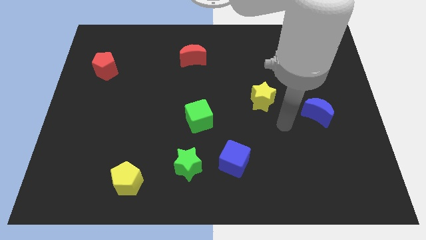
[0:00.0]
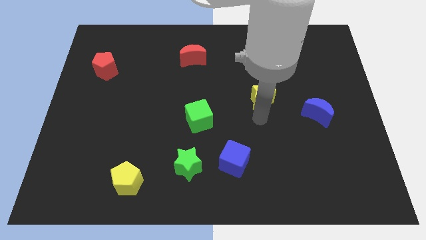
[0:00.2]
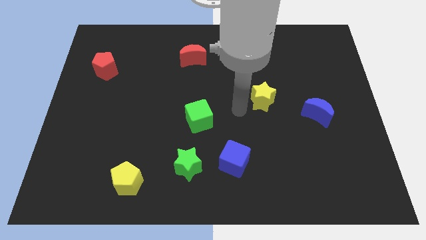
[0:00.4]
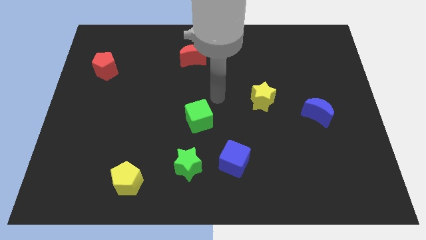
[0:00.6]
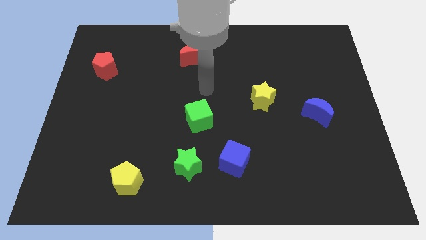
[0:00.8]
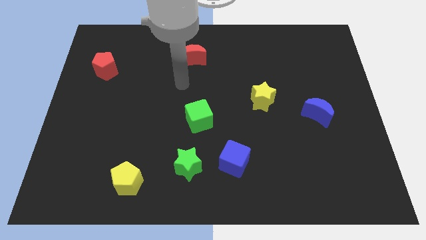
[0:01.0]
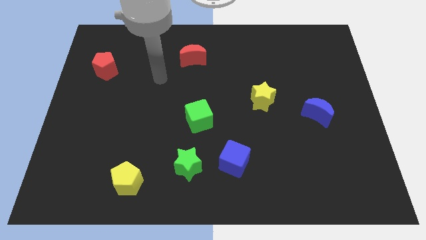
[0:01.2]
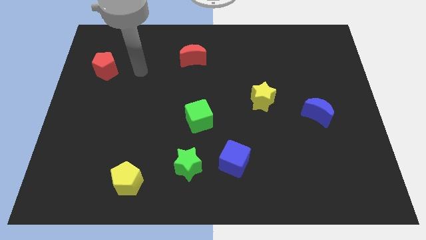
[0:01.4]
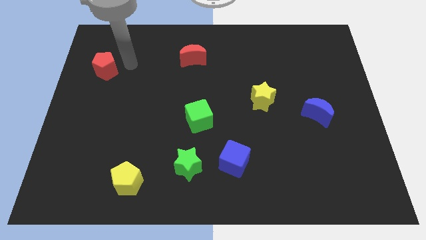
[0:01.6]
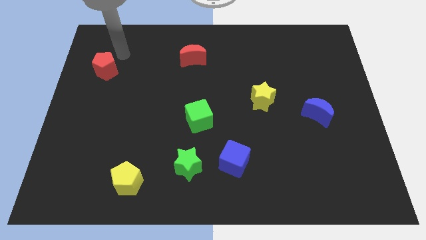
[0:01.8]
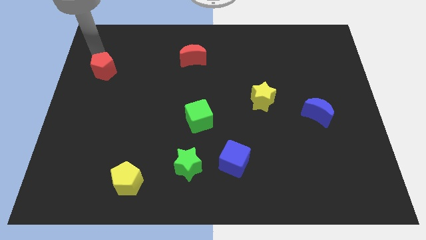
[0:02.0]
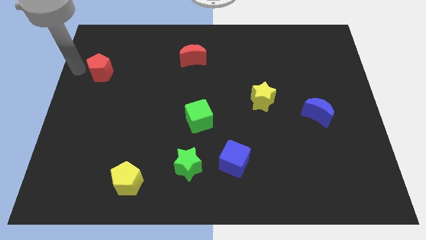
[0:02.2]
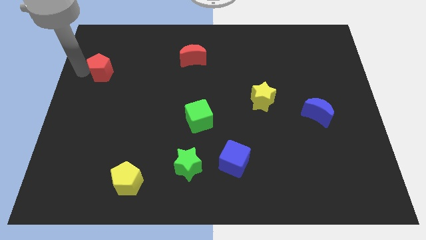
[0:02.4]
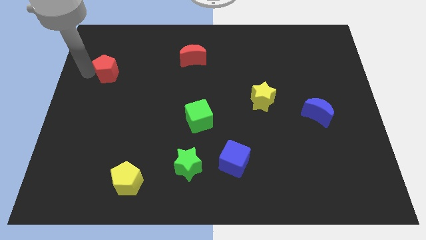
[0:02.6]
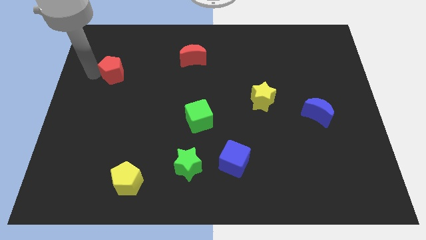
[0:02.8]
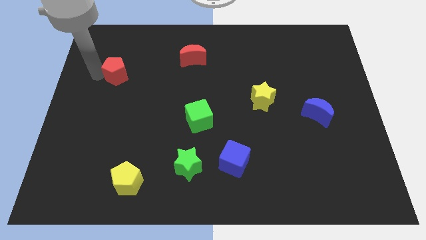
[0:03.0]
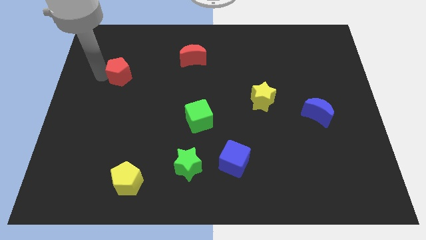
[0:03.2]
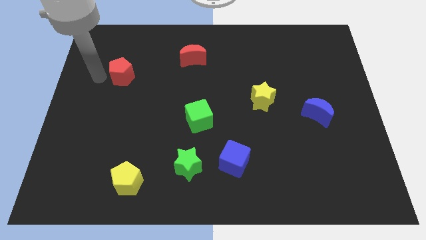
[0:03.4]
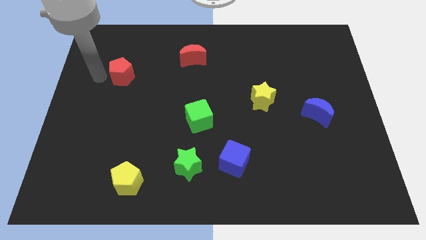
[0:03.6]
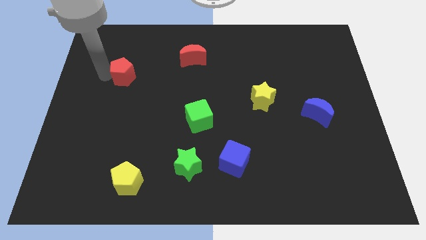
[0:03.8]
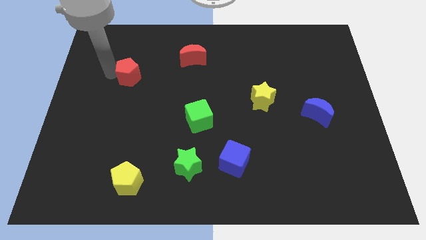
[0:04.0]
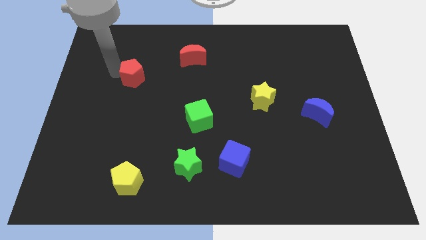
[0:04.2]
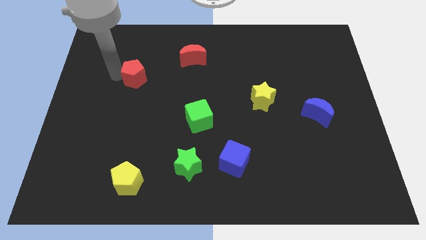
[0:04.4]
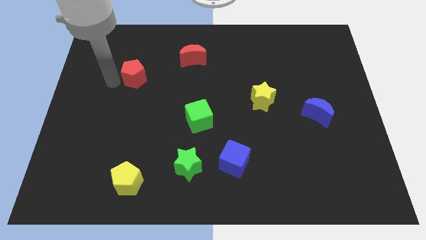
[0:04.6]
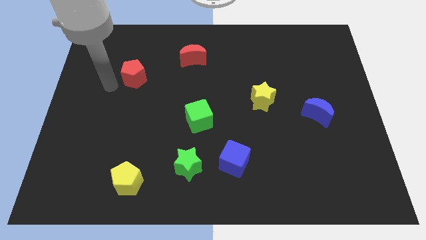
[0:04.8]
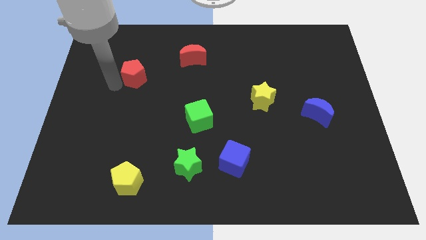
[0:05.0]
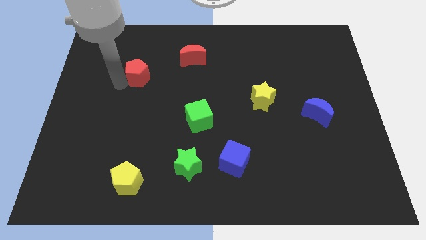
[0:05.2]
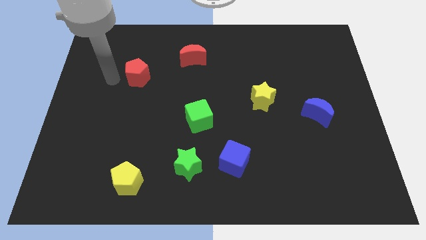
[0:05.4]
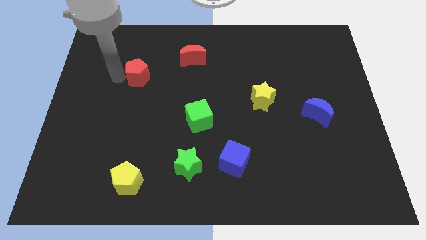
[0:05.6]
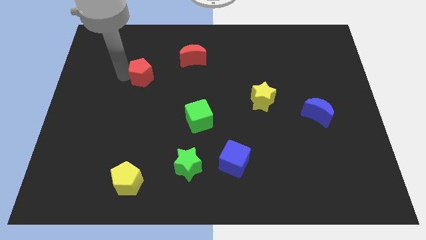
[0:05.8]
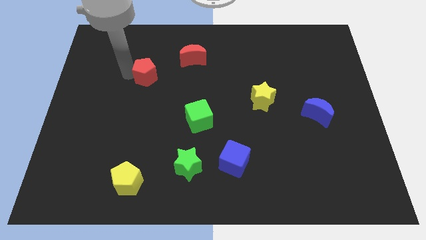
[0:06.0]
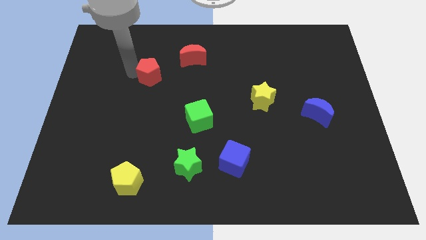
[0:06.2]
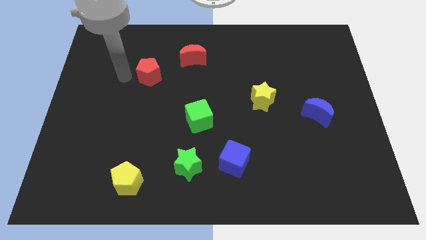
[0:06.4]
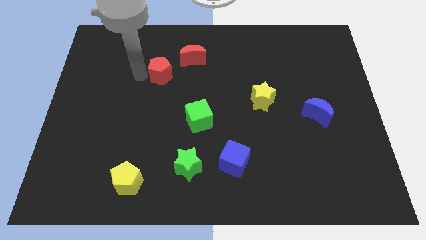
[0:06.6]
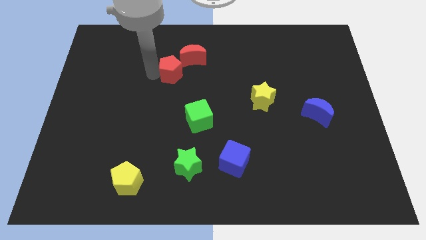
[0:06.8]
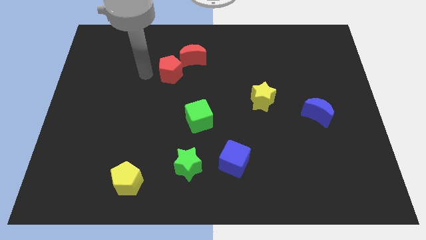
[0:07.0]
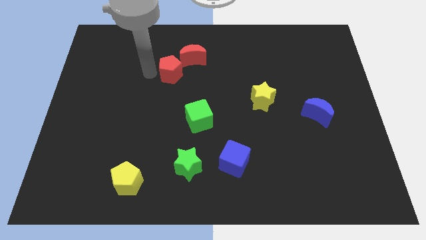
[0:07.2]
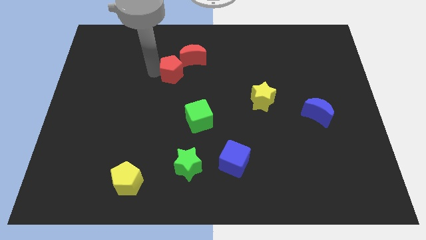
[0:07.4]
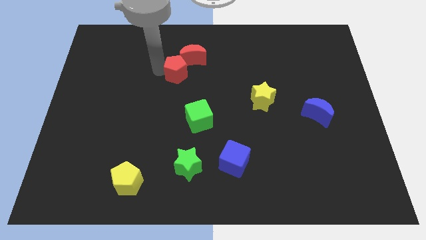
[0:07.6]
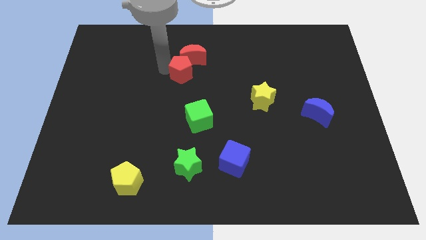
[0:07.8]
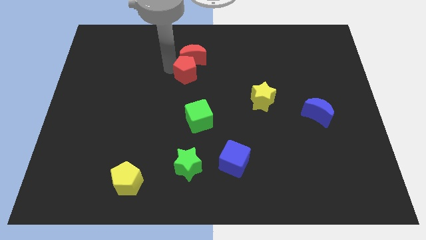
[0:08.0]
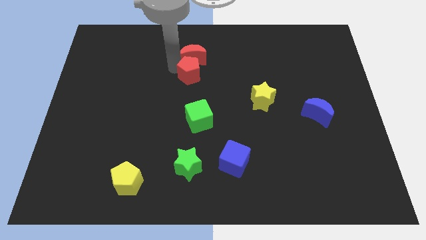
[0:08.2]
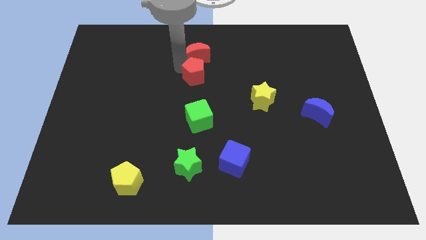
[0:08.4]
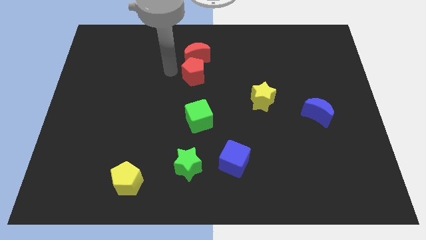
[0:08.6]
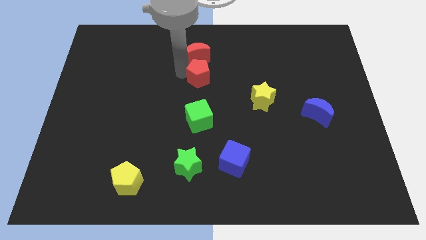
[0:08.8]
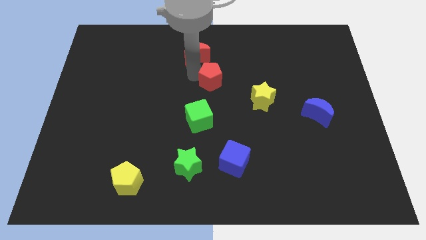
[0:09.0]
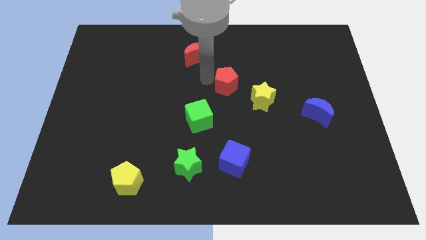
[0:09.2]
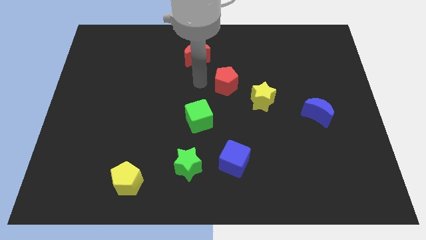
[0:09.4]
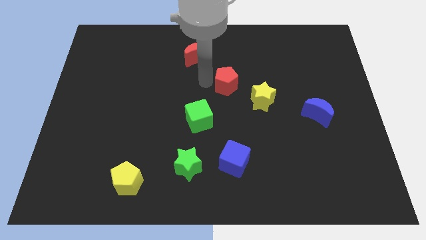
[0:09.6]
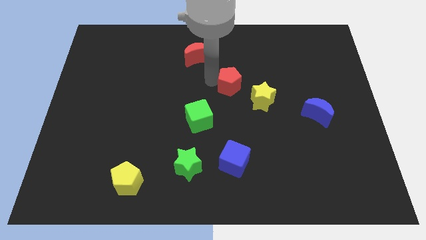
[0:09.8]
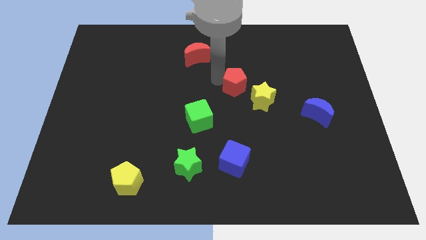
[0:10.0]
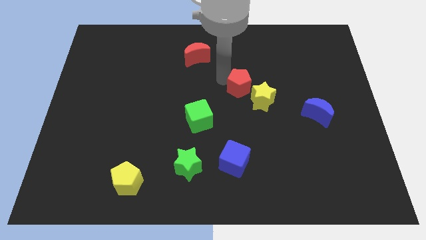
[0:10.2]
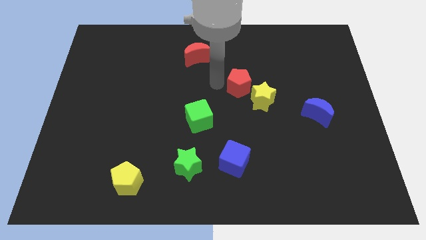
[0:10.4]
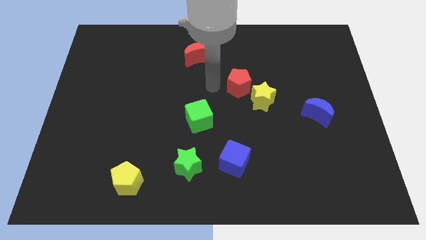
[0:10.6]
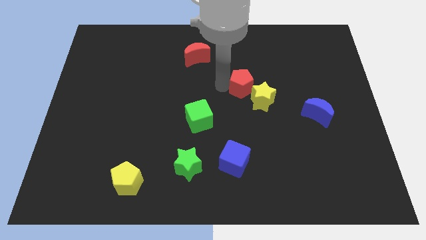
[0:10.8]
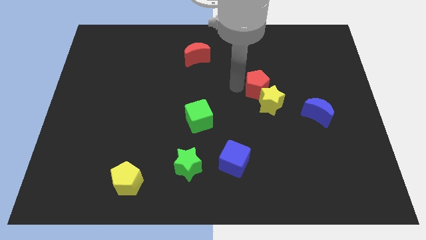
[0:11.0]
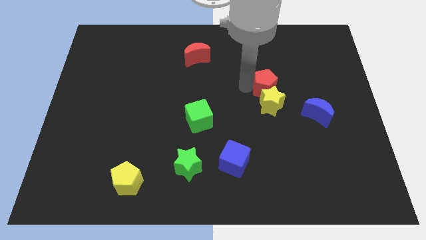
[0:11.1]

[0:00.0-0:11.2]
put the red pentagon diagonally up and to the right of the yellow star

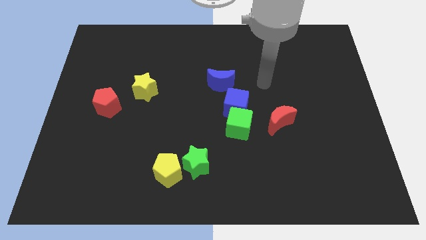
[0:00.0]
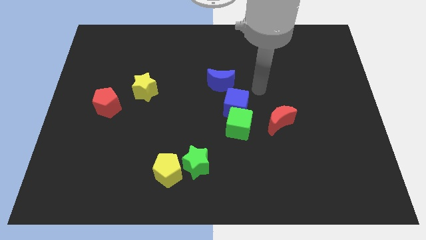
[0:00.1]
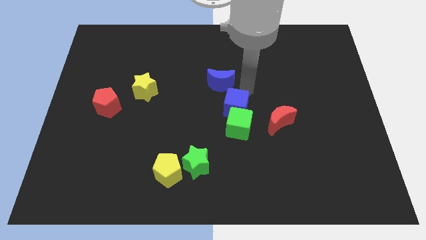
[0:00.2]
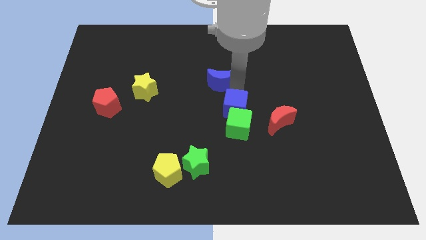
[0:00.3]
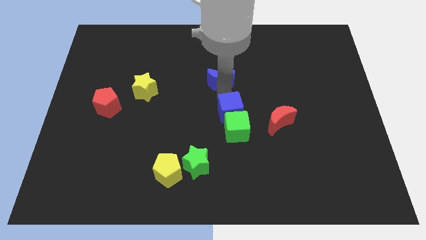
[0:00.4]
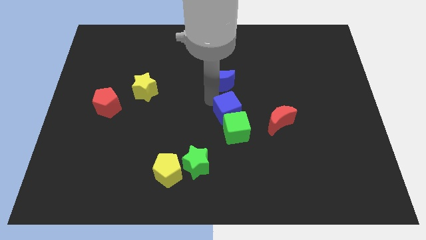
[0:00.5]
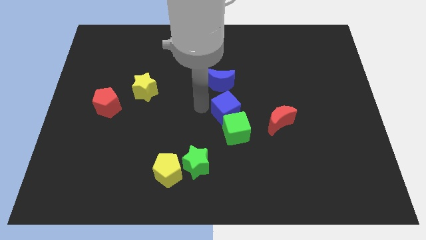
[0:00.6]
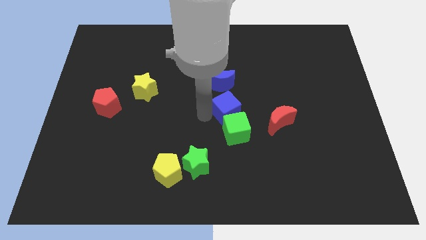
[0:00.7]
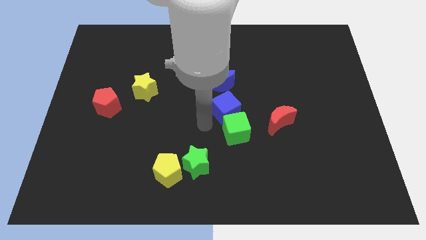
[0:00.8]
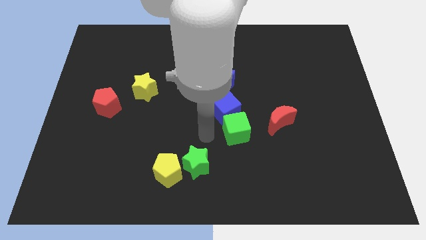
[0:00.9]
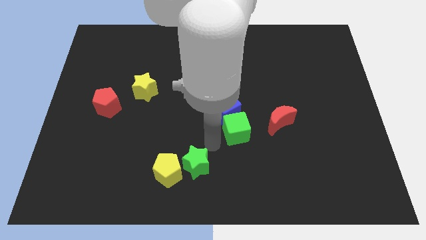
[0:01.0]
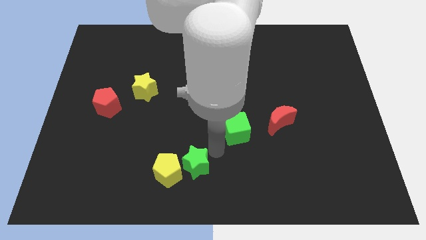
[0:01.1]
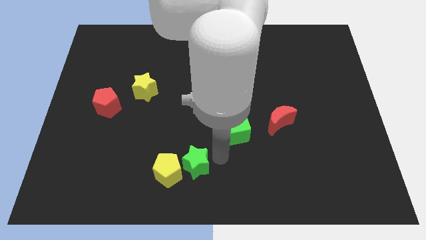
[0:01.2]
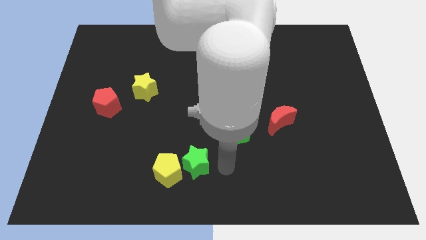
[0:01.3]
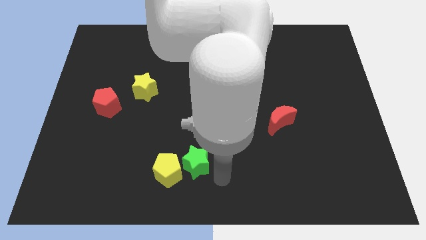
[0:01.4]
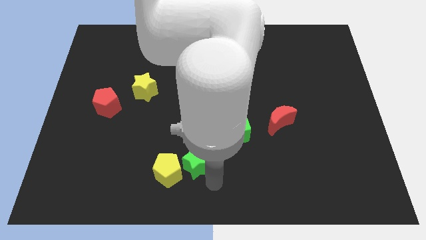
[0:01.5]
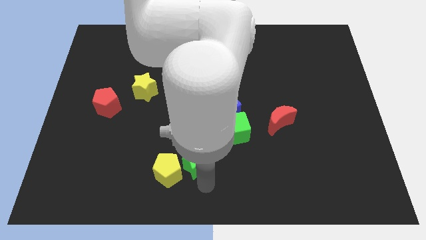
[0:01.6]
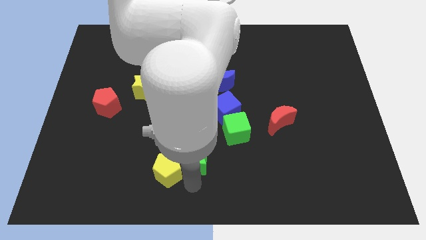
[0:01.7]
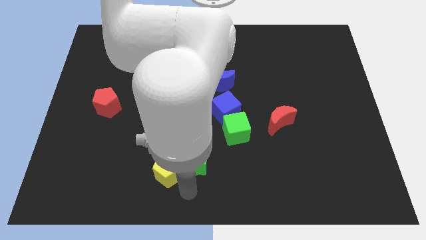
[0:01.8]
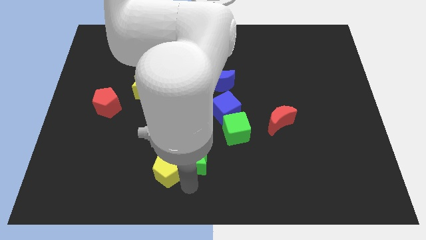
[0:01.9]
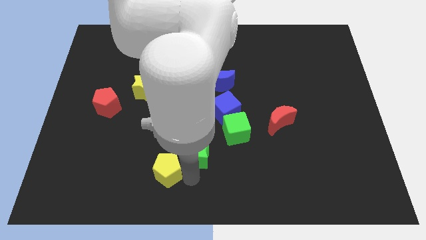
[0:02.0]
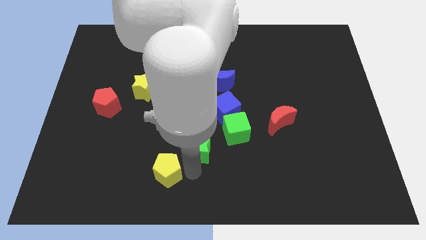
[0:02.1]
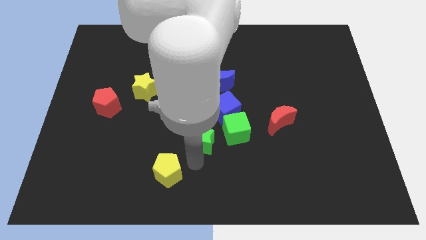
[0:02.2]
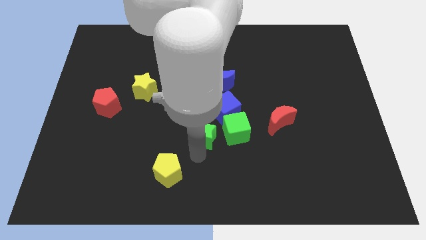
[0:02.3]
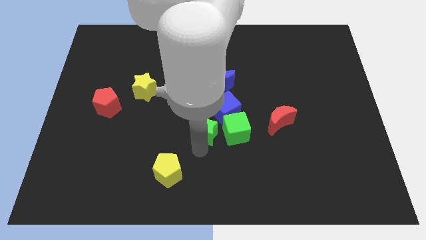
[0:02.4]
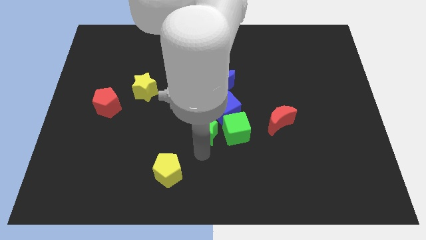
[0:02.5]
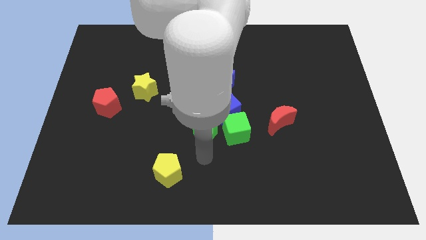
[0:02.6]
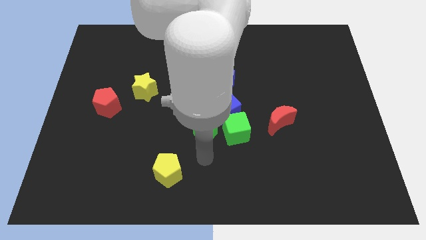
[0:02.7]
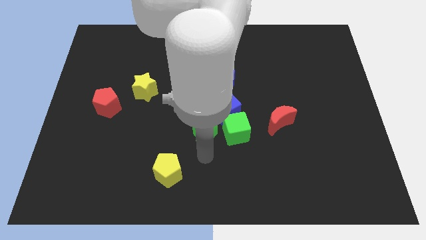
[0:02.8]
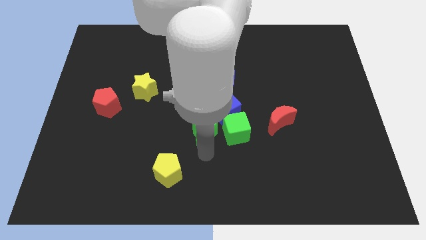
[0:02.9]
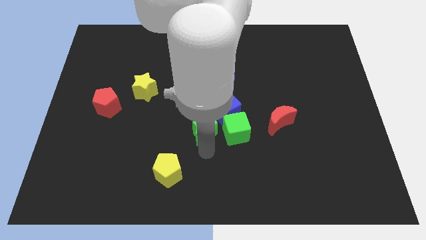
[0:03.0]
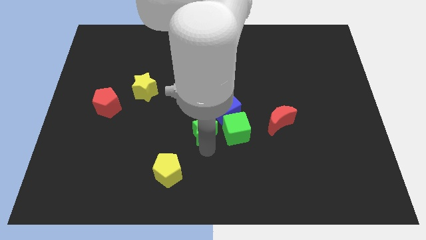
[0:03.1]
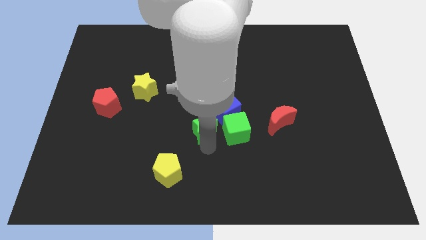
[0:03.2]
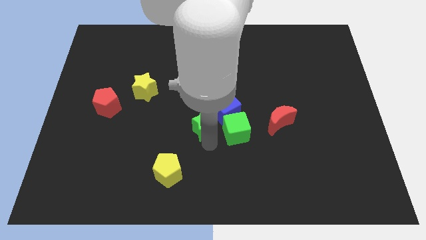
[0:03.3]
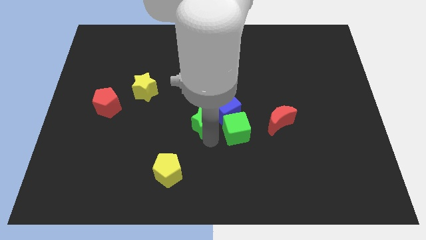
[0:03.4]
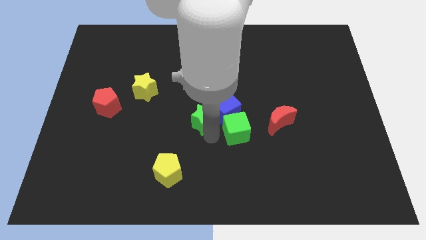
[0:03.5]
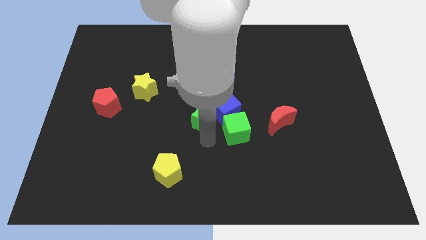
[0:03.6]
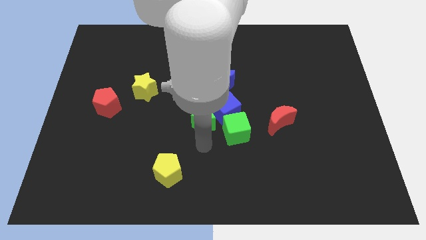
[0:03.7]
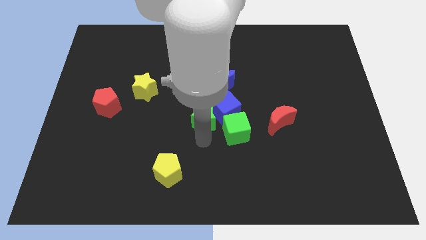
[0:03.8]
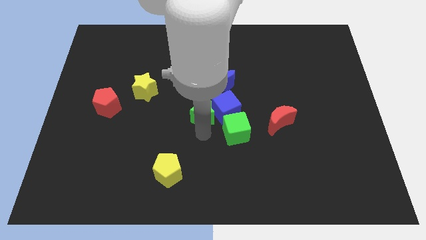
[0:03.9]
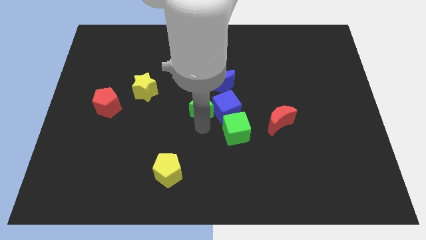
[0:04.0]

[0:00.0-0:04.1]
push the green star to the top left side of the blue cube
